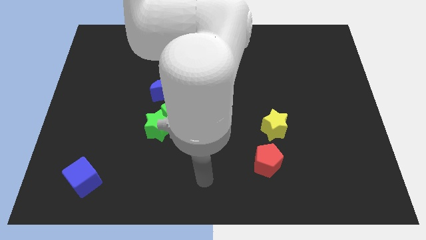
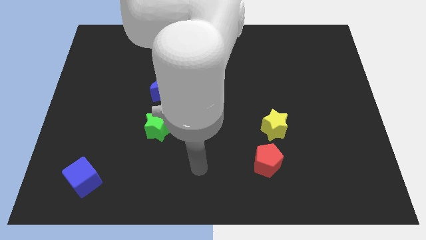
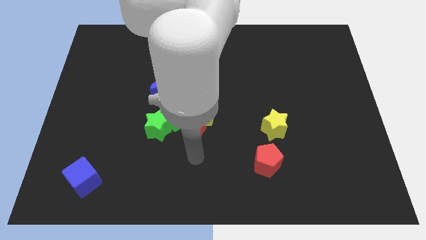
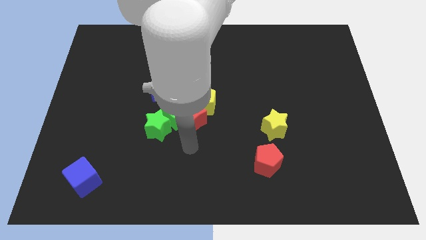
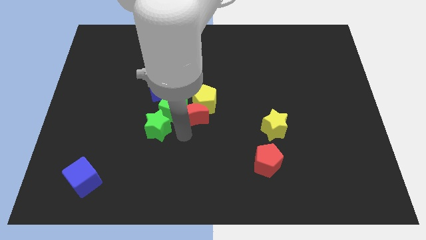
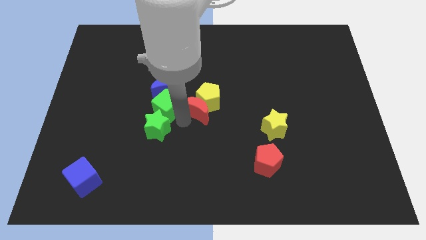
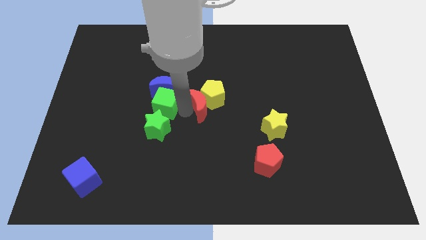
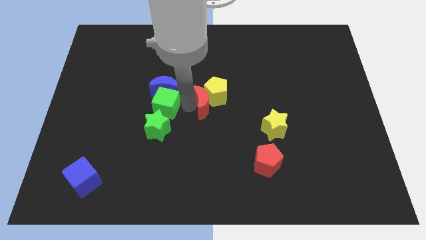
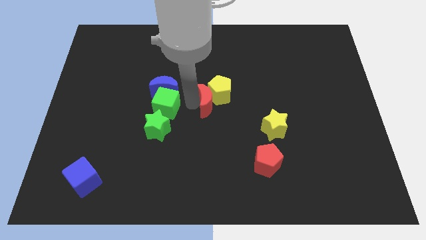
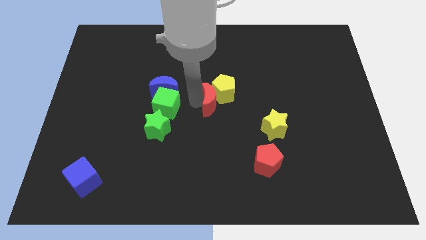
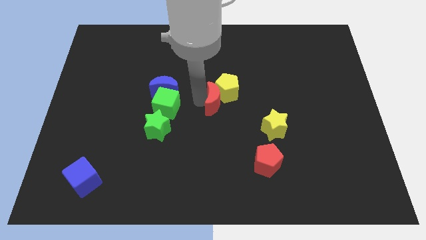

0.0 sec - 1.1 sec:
move the yellow pentagon away from the green cube and red moon

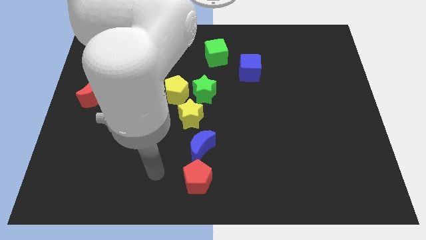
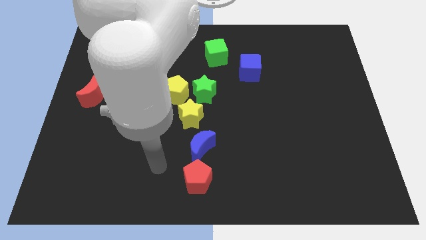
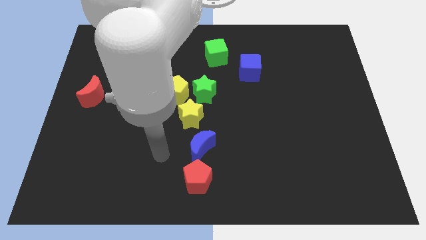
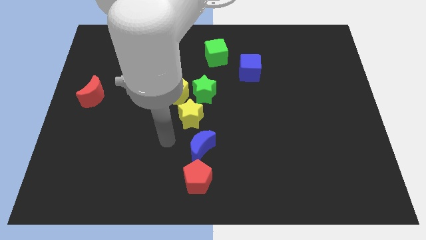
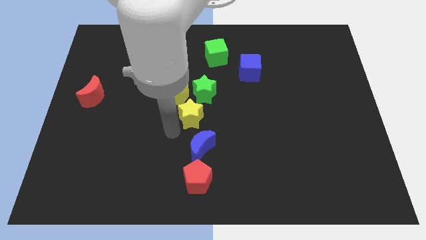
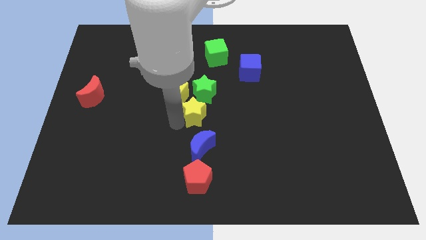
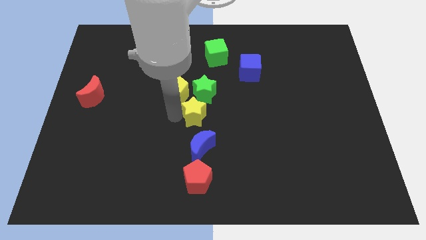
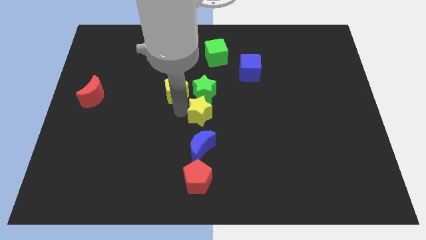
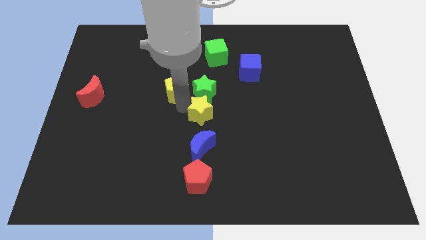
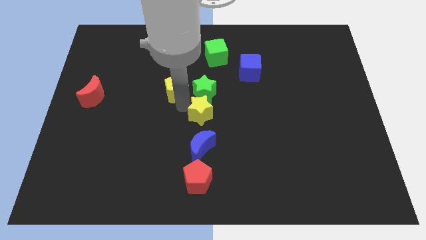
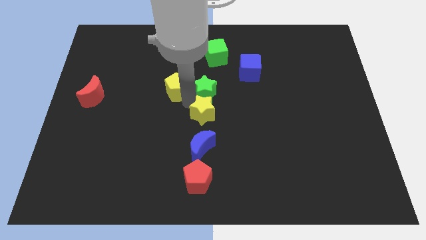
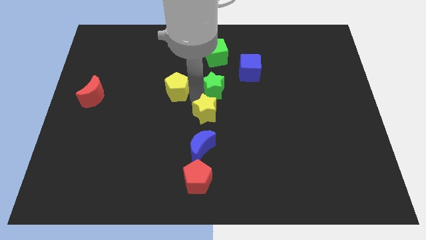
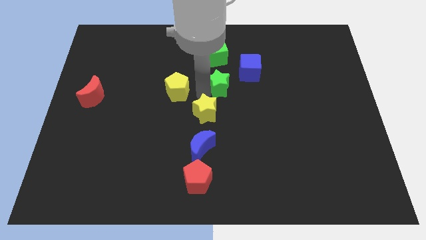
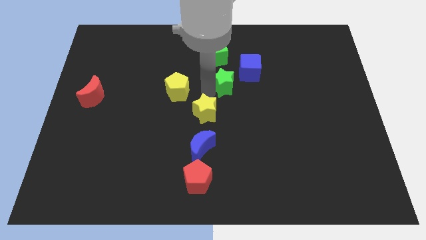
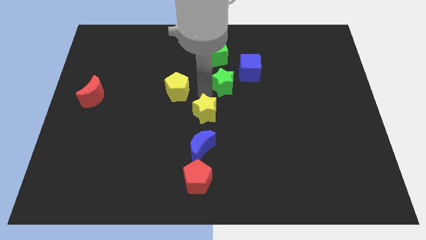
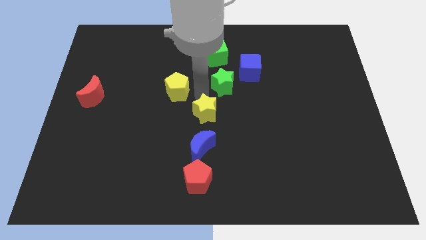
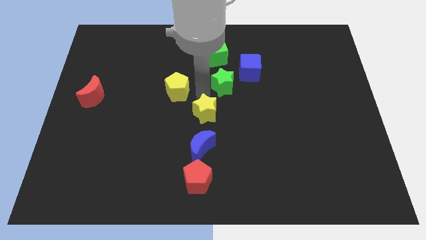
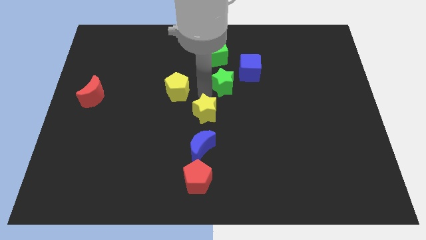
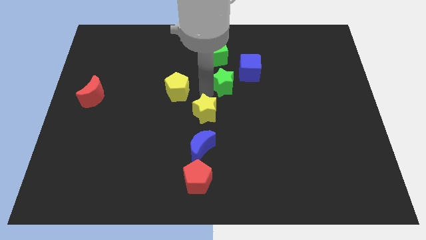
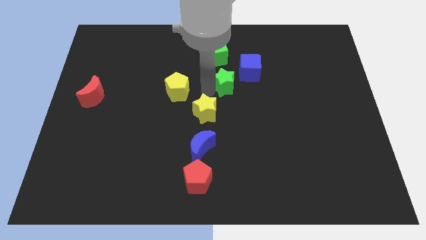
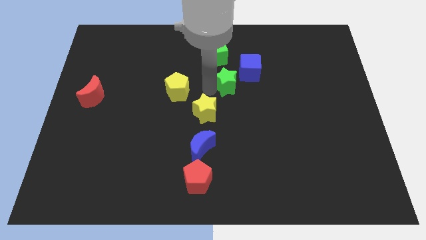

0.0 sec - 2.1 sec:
separate the green star from the yellow pentagon and yellow star

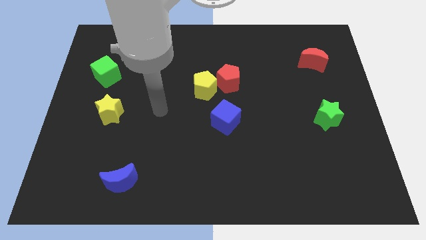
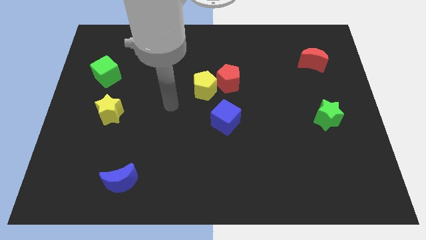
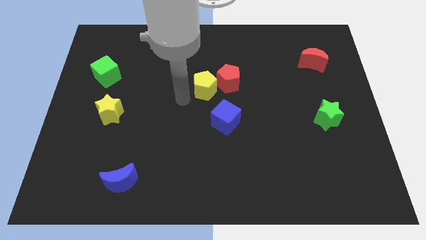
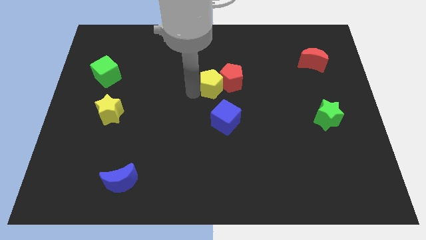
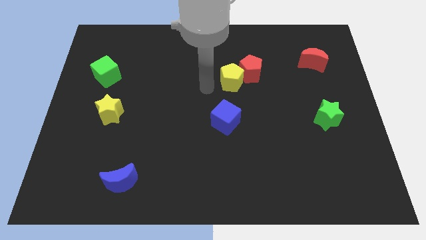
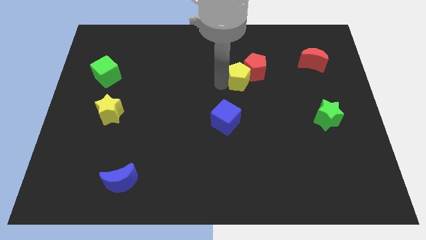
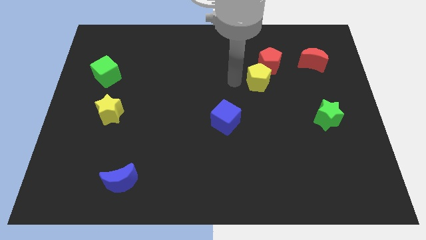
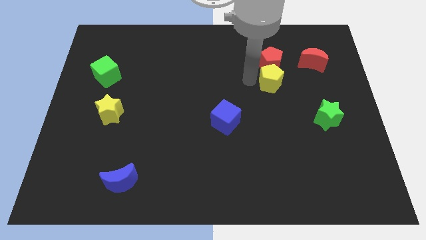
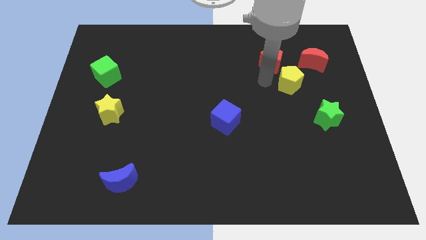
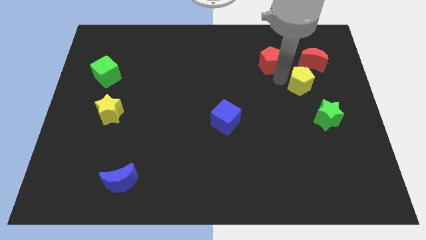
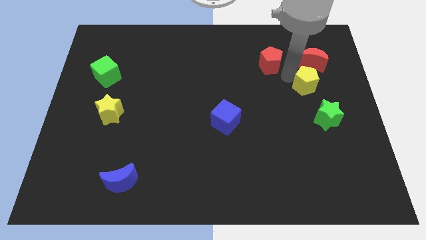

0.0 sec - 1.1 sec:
pull the red pentagon apart from the yellow pentagon

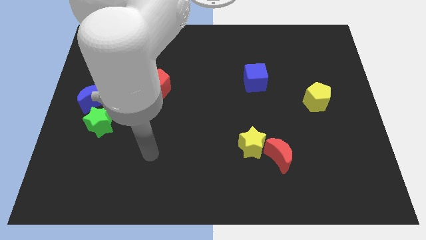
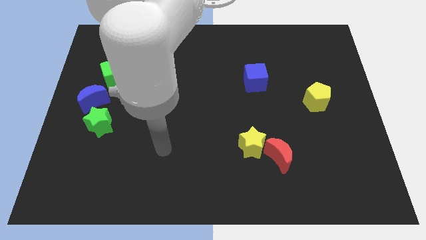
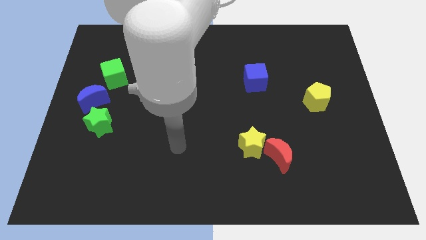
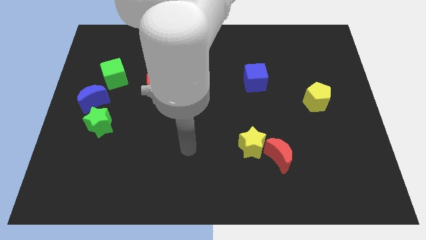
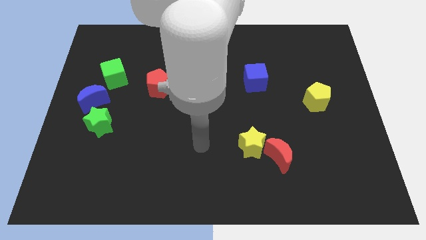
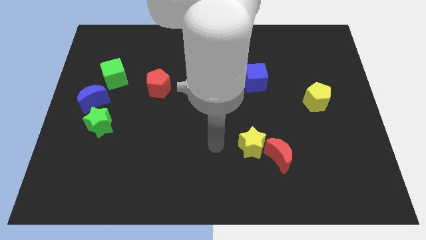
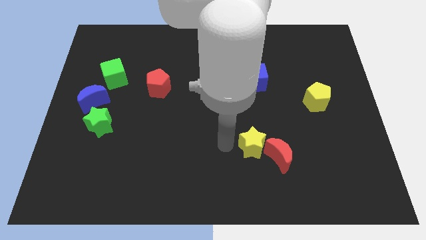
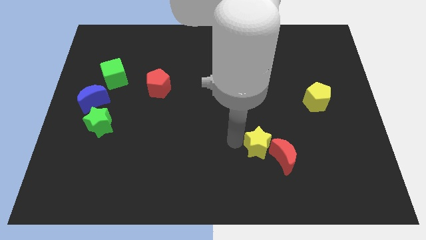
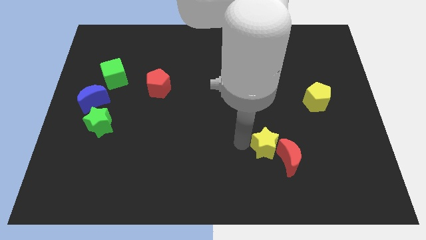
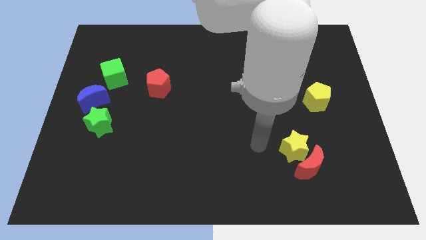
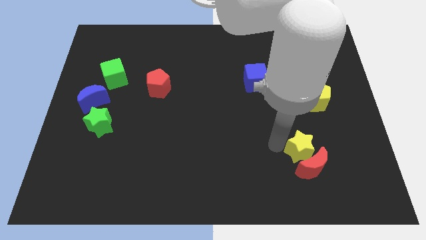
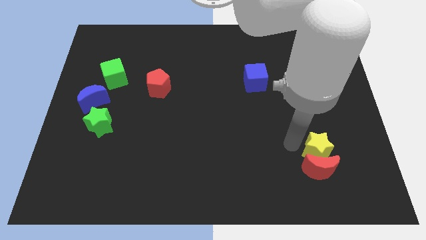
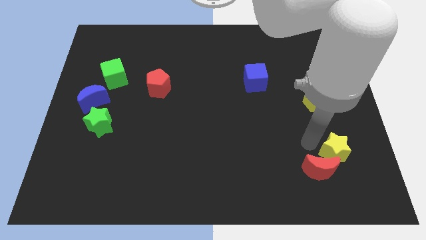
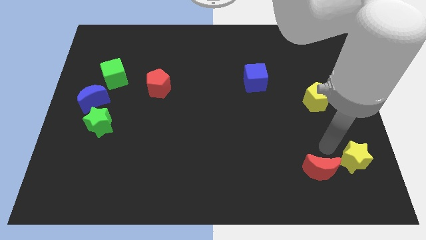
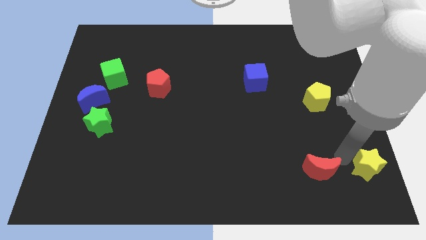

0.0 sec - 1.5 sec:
move the red moon away from the yellow star

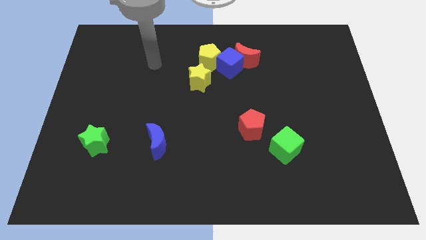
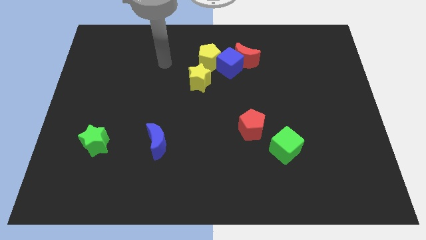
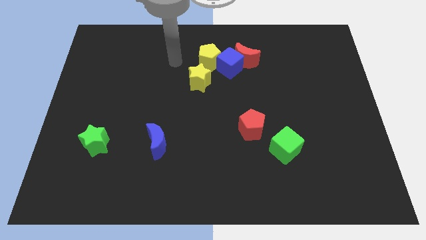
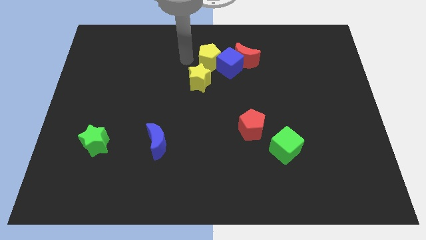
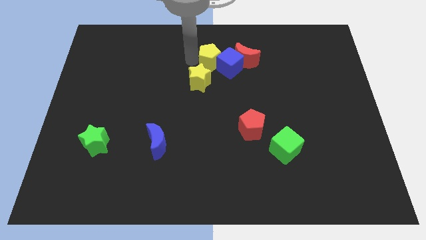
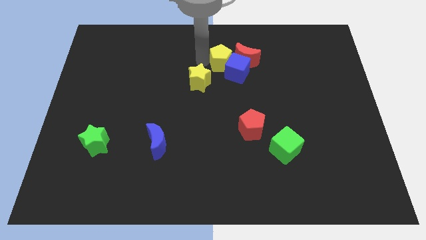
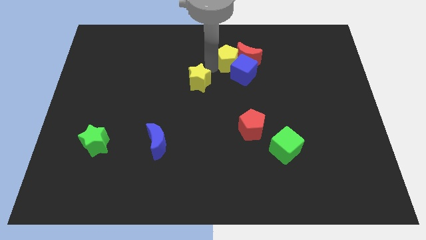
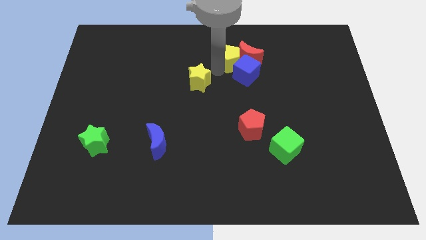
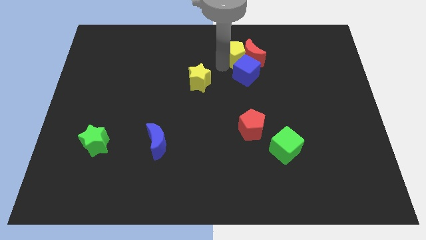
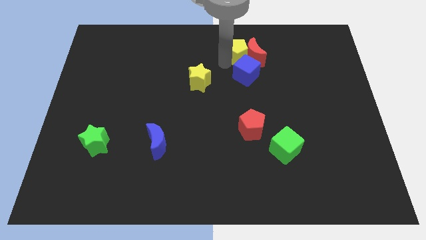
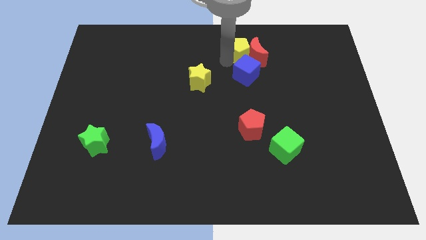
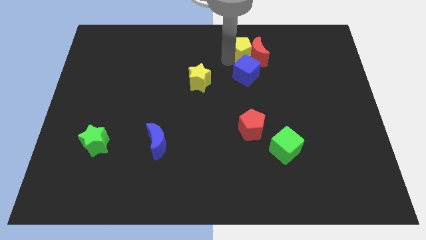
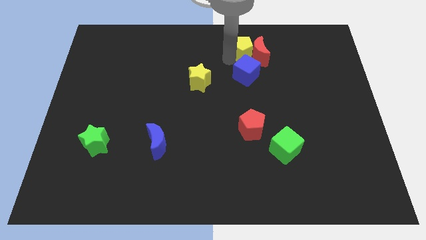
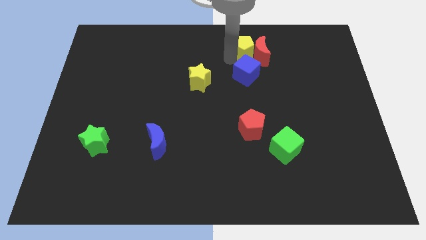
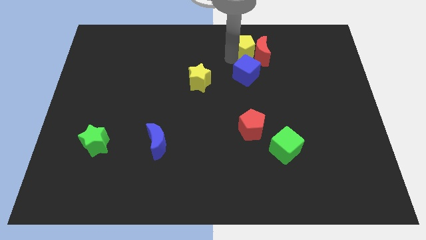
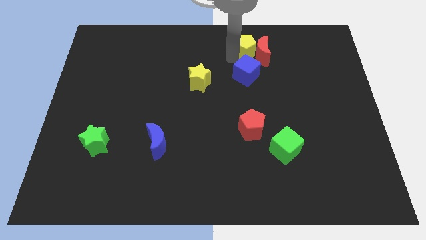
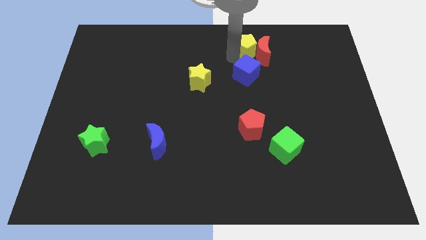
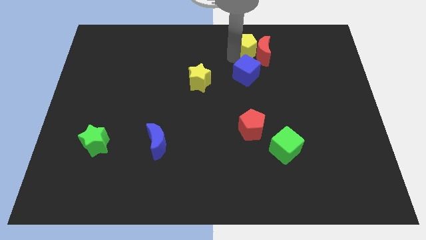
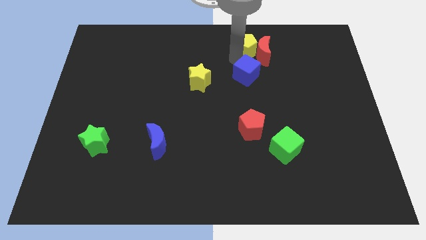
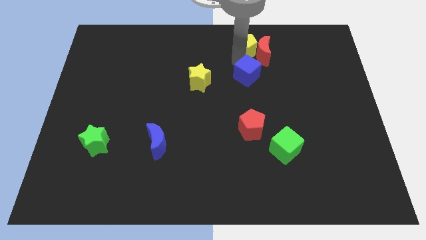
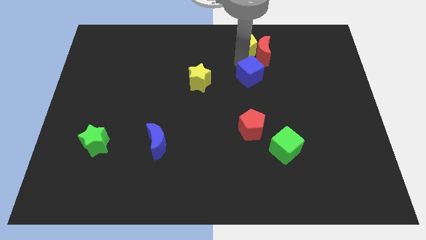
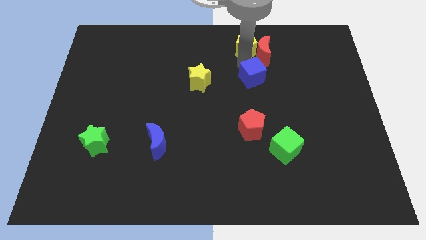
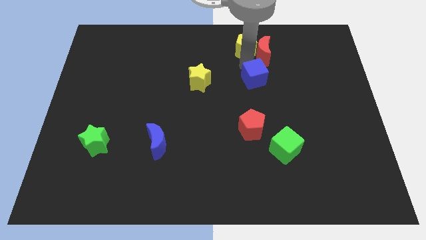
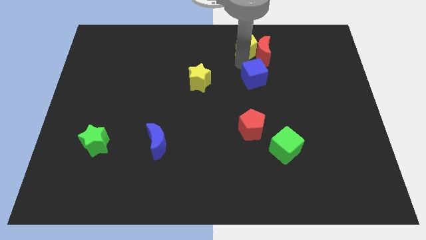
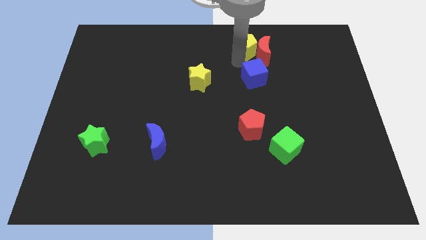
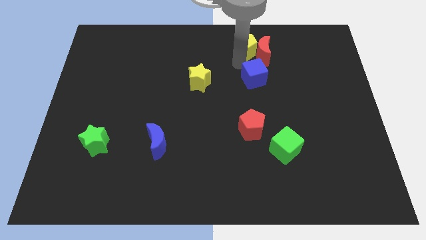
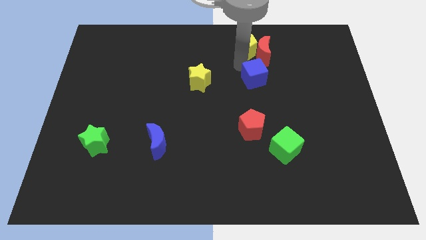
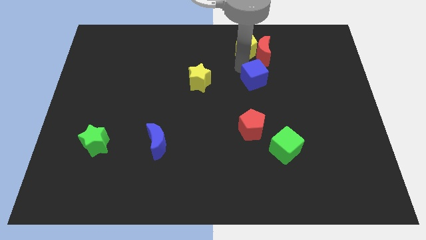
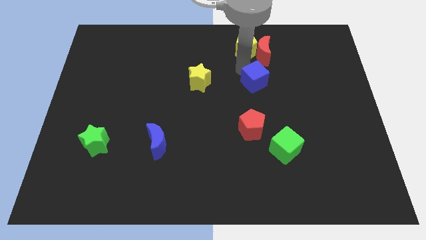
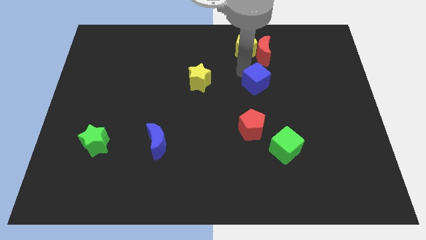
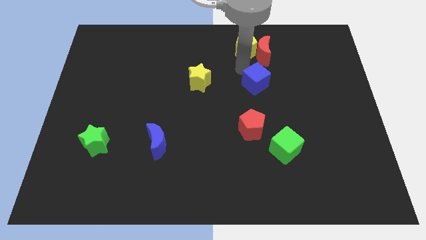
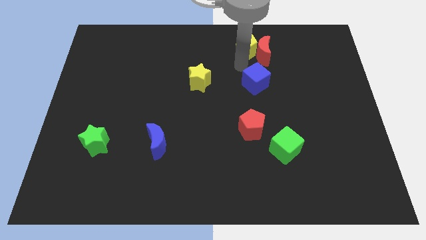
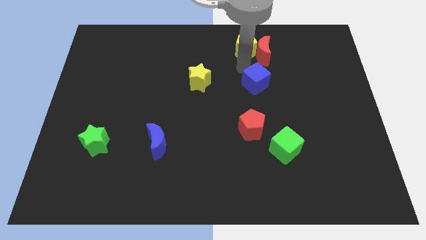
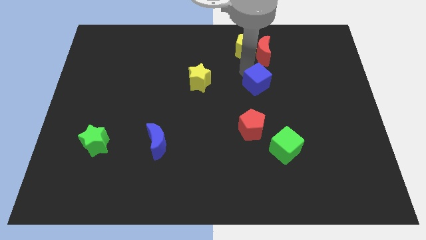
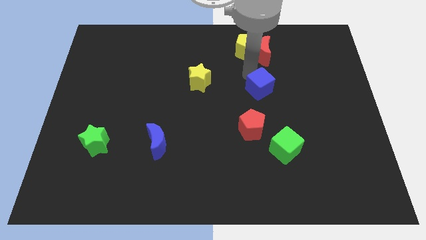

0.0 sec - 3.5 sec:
move the blue cube away from the red moon, yellow pentagon, and yellow star
